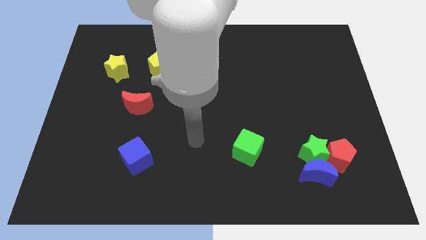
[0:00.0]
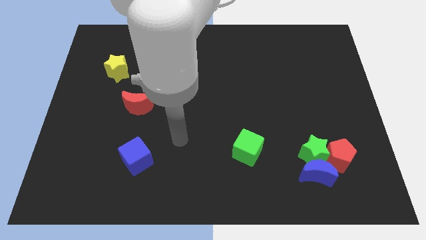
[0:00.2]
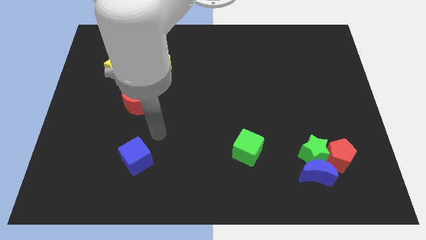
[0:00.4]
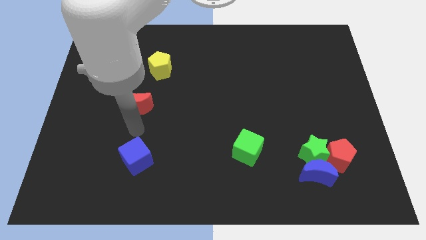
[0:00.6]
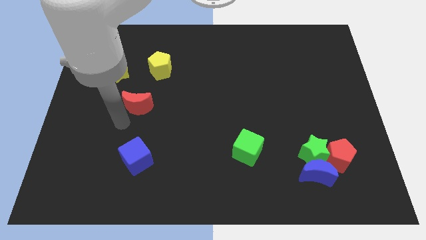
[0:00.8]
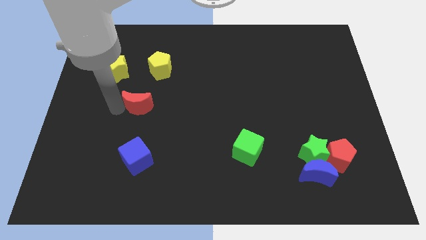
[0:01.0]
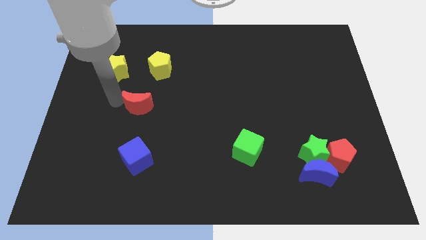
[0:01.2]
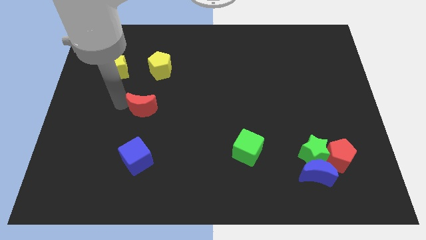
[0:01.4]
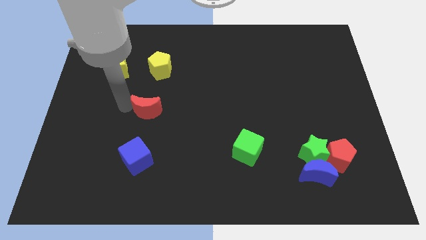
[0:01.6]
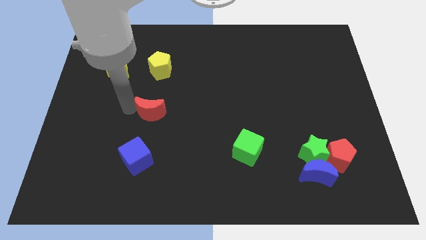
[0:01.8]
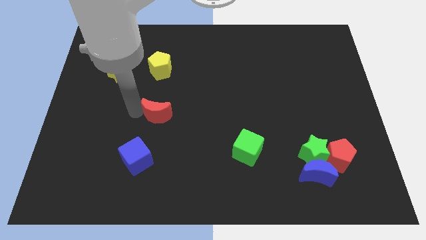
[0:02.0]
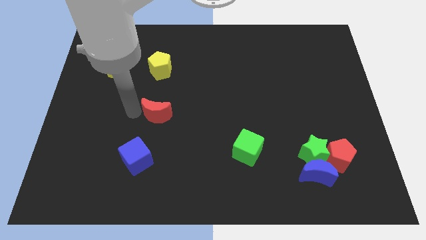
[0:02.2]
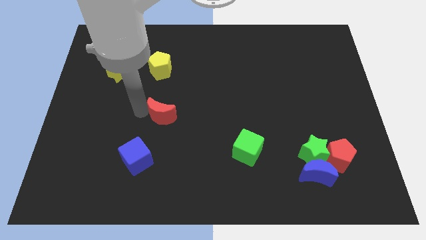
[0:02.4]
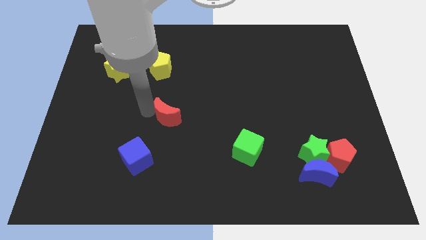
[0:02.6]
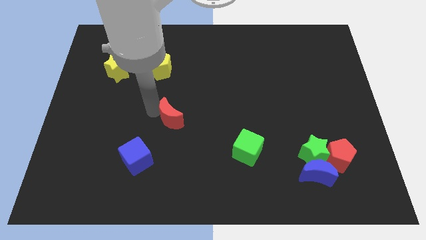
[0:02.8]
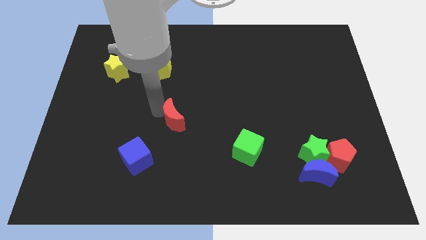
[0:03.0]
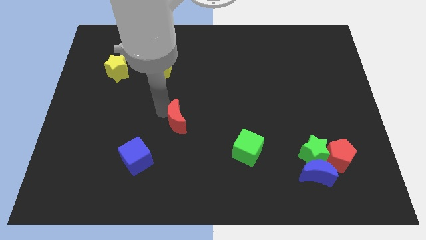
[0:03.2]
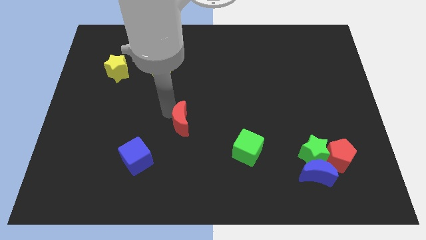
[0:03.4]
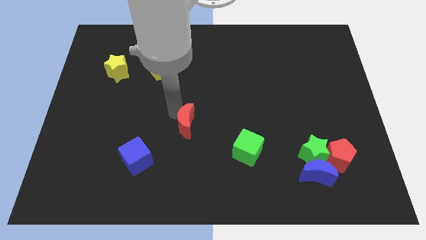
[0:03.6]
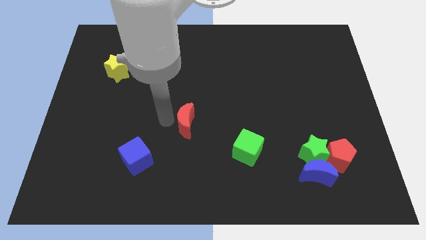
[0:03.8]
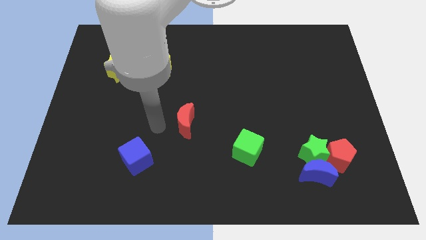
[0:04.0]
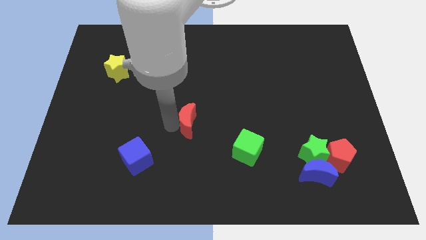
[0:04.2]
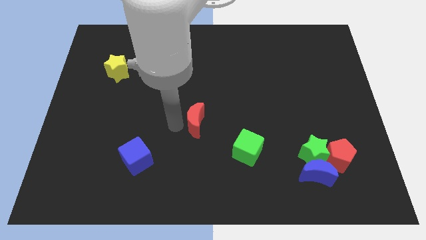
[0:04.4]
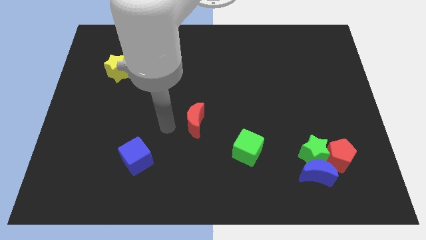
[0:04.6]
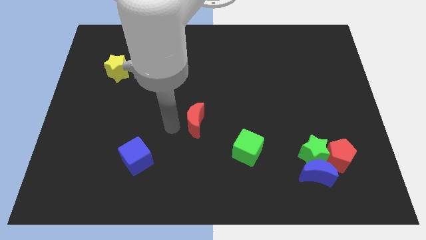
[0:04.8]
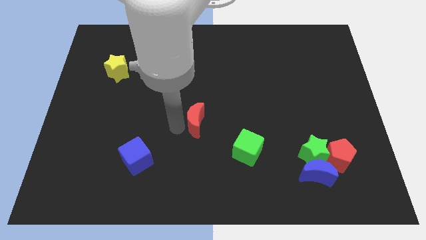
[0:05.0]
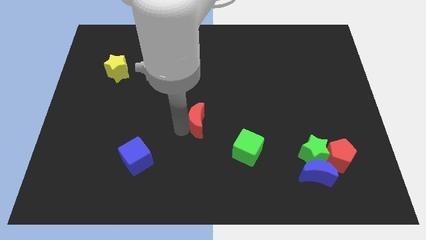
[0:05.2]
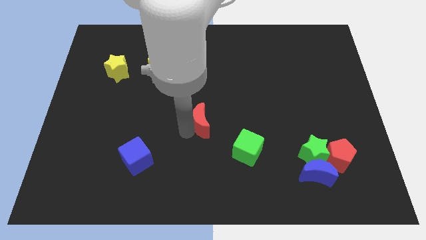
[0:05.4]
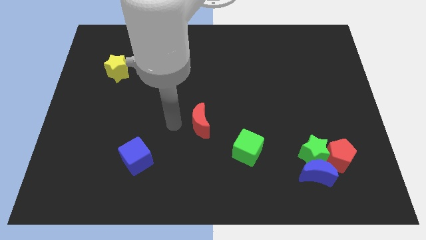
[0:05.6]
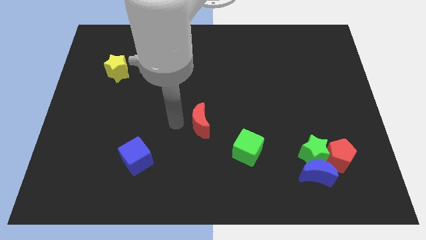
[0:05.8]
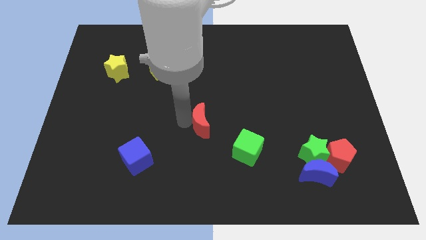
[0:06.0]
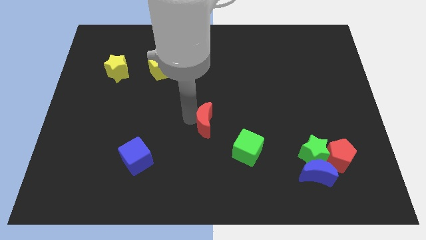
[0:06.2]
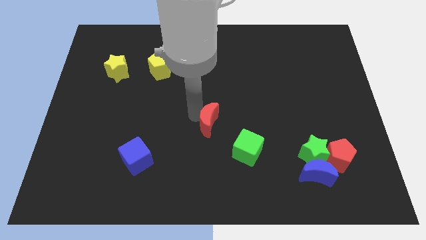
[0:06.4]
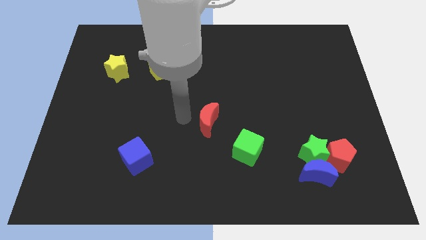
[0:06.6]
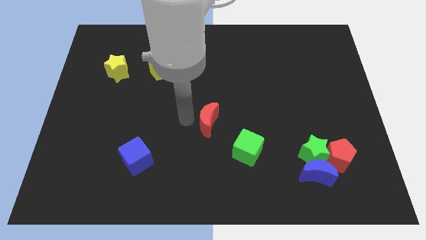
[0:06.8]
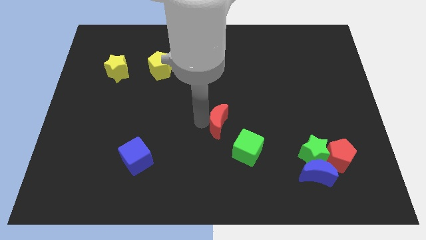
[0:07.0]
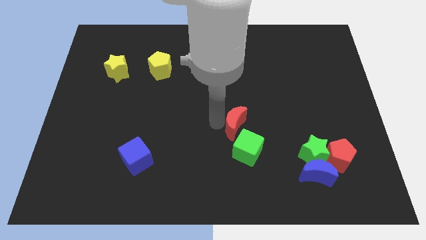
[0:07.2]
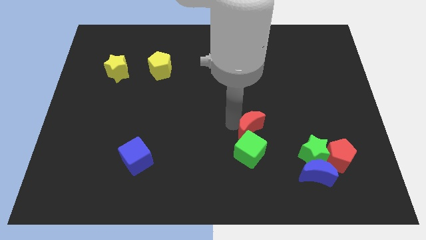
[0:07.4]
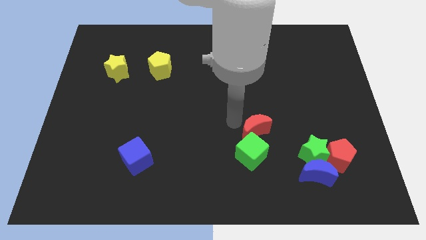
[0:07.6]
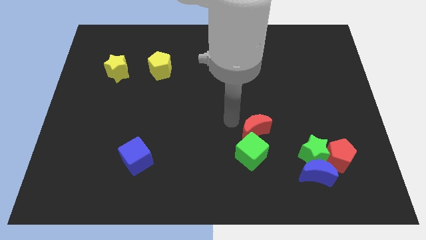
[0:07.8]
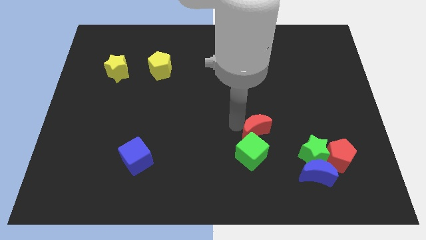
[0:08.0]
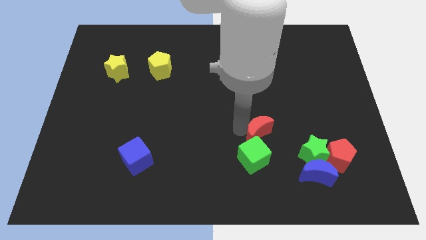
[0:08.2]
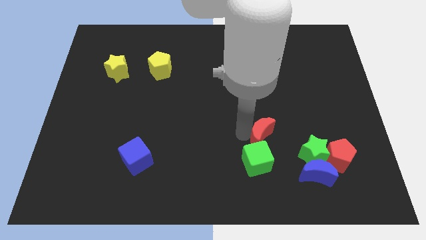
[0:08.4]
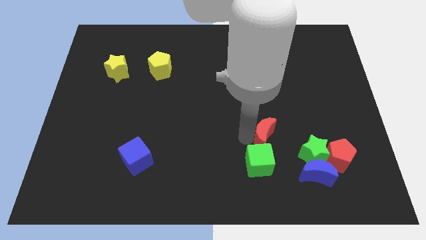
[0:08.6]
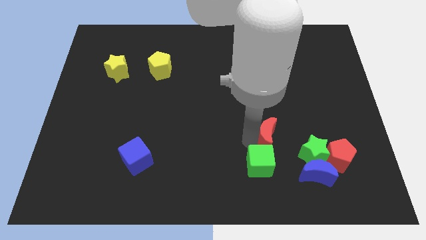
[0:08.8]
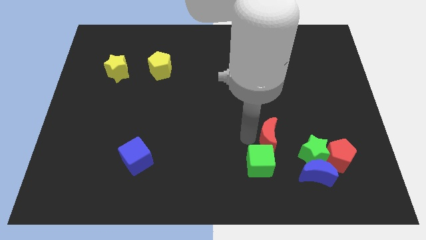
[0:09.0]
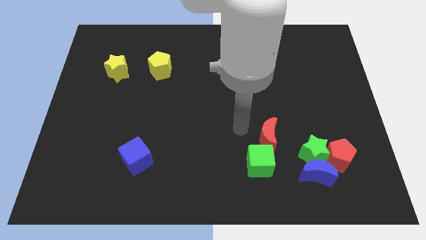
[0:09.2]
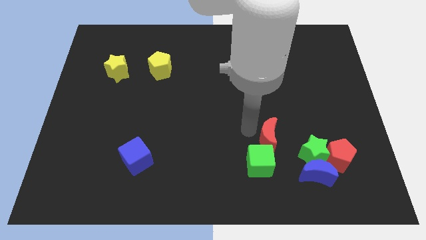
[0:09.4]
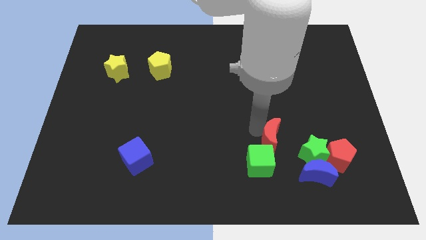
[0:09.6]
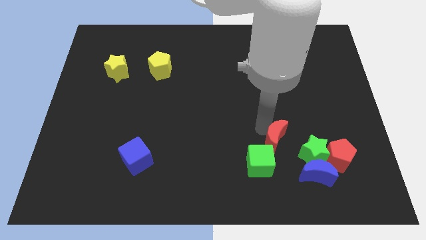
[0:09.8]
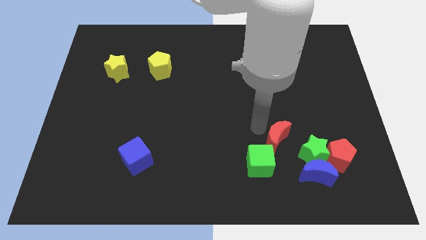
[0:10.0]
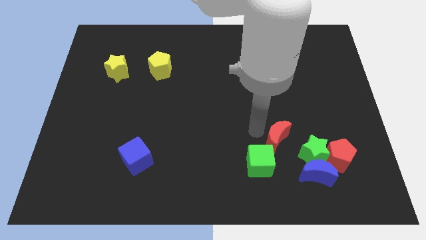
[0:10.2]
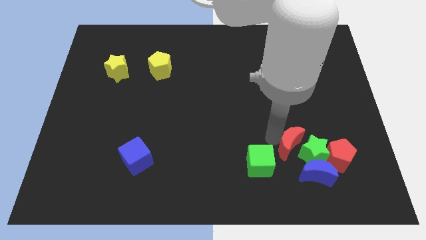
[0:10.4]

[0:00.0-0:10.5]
push the red moon towards the green star

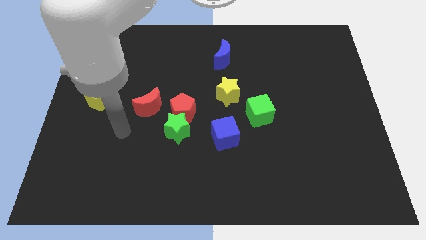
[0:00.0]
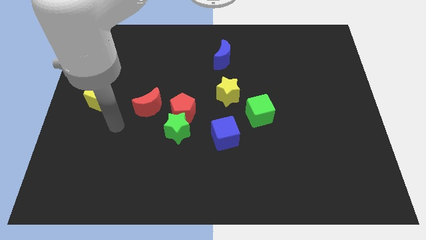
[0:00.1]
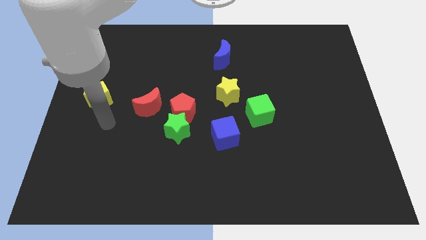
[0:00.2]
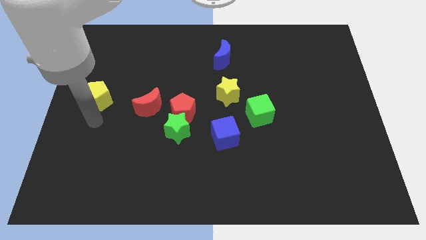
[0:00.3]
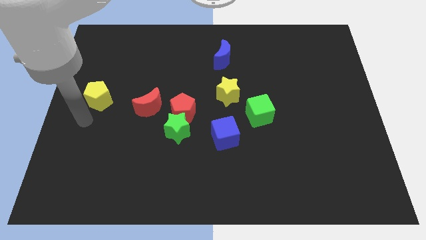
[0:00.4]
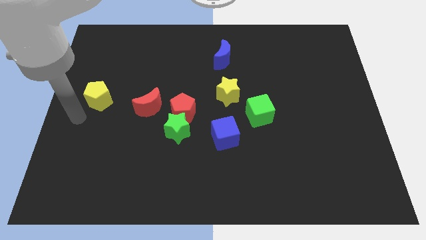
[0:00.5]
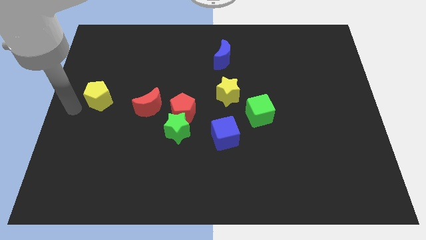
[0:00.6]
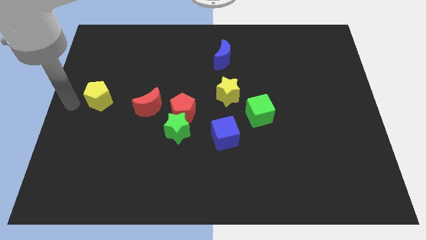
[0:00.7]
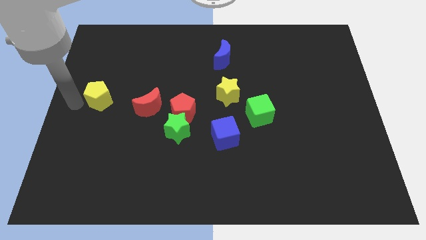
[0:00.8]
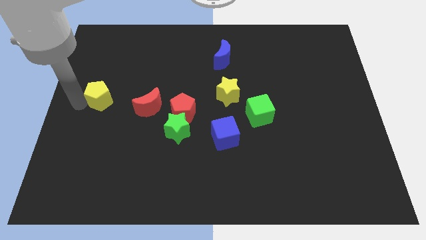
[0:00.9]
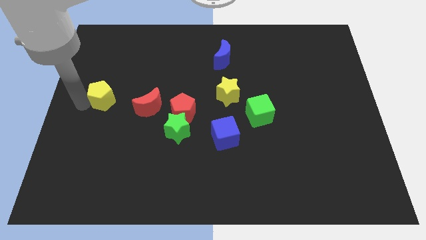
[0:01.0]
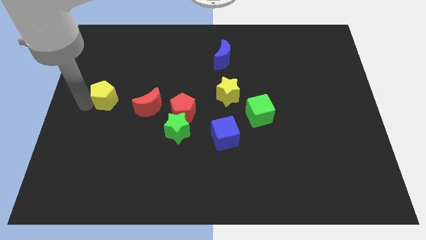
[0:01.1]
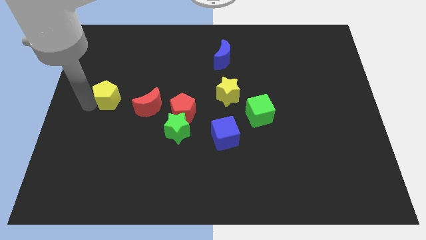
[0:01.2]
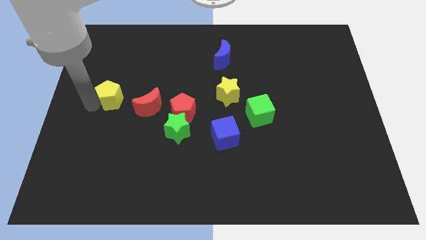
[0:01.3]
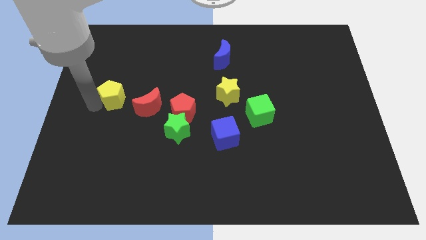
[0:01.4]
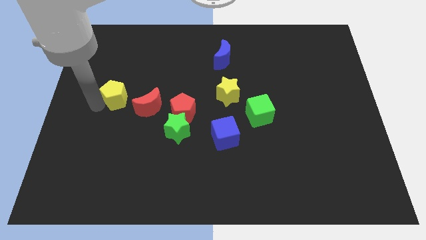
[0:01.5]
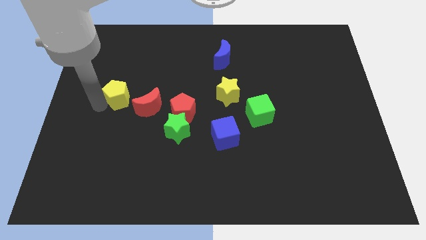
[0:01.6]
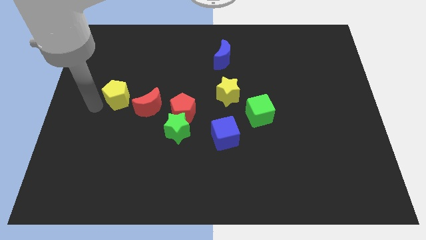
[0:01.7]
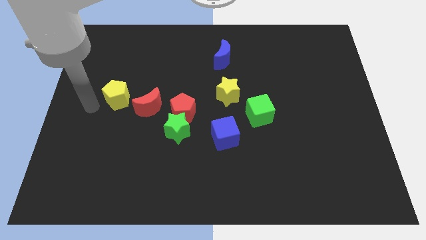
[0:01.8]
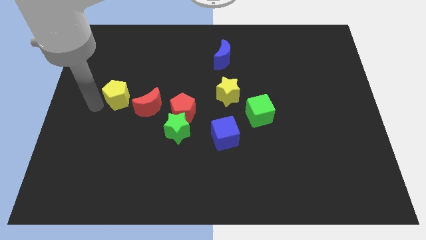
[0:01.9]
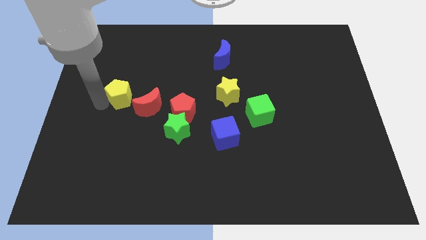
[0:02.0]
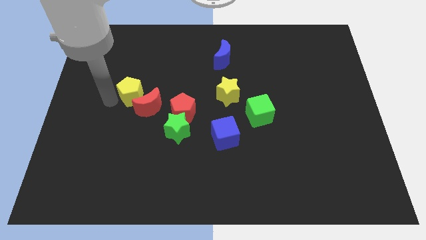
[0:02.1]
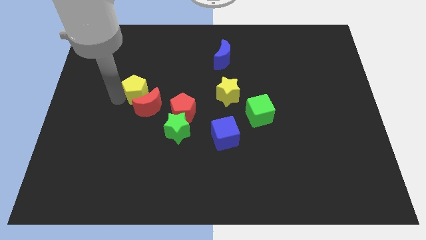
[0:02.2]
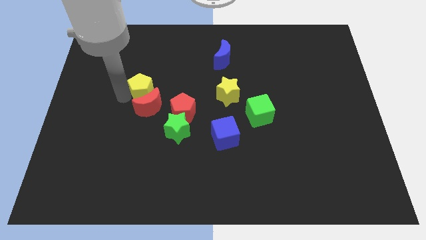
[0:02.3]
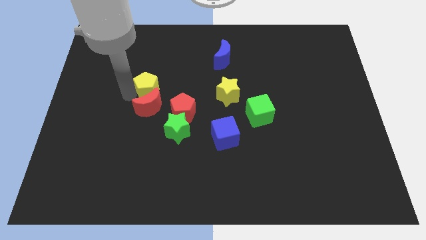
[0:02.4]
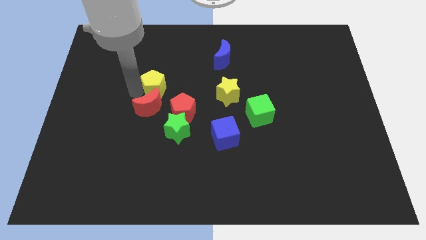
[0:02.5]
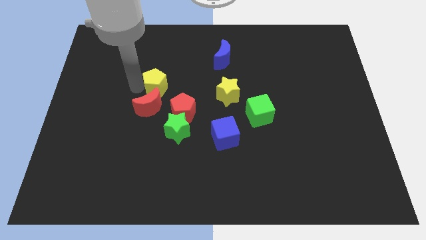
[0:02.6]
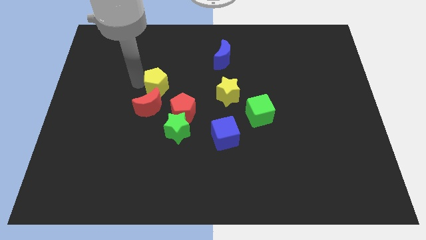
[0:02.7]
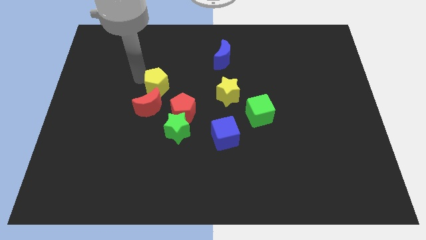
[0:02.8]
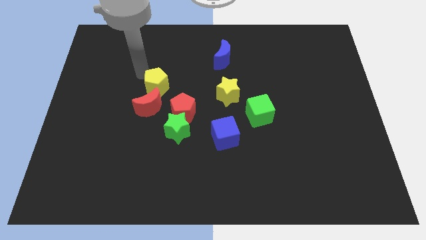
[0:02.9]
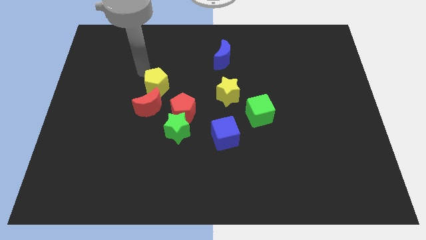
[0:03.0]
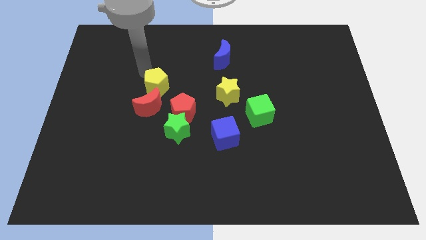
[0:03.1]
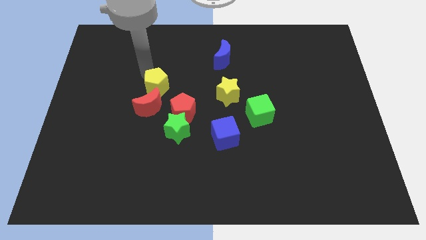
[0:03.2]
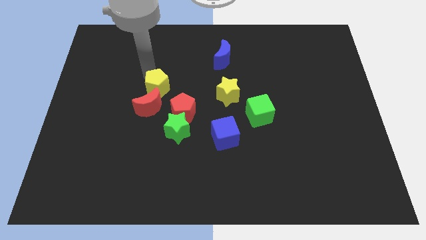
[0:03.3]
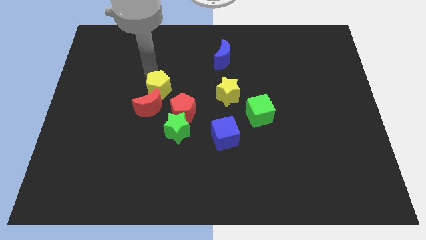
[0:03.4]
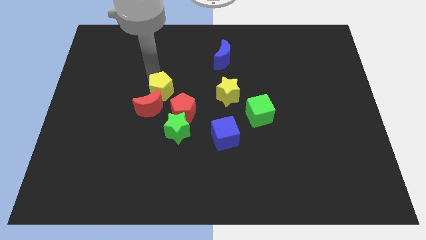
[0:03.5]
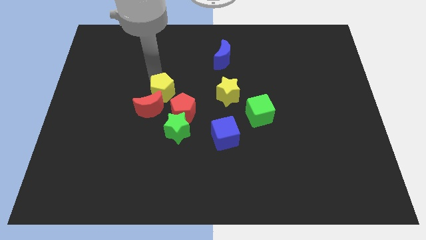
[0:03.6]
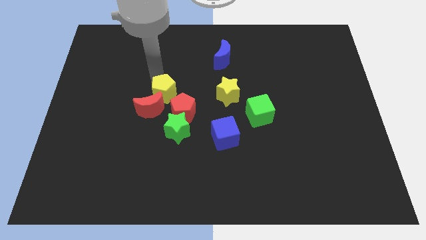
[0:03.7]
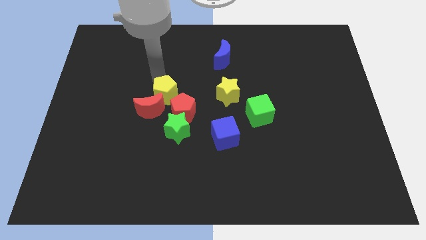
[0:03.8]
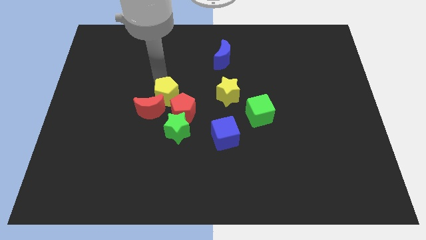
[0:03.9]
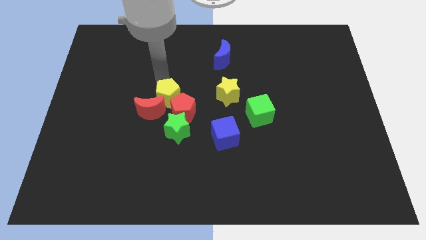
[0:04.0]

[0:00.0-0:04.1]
push the yellow pentagon close to the red pentagon
